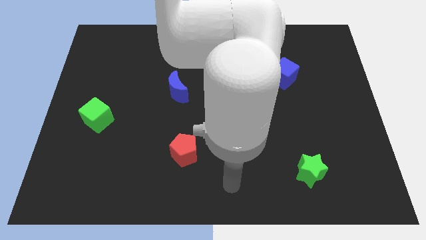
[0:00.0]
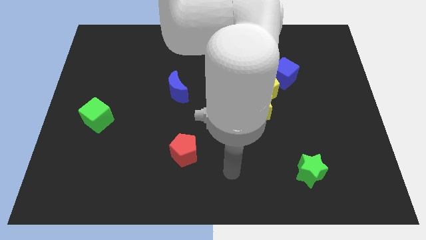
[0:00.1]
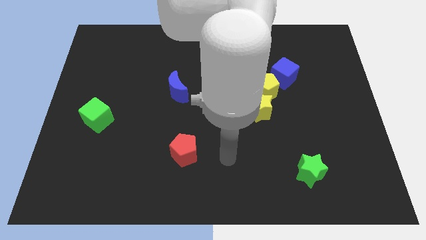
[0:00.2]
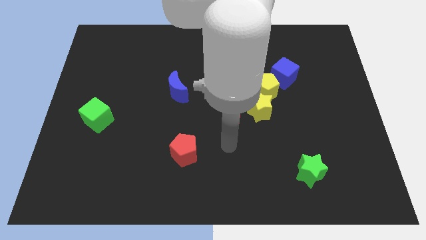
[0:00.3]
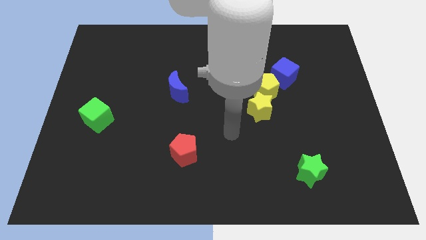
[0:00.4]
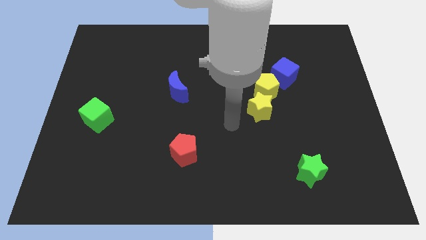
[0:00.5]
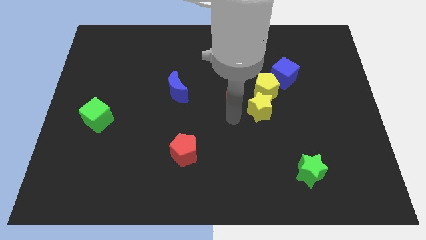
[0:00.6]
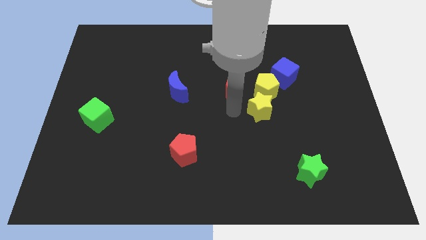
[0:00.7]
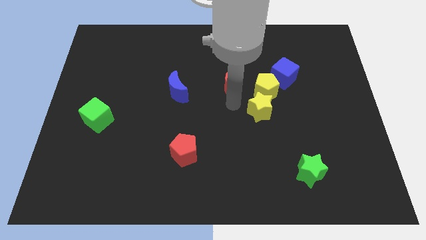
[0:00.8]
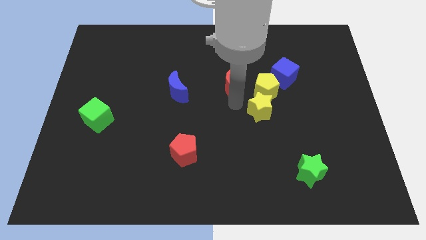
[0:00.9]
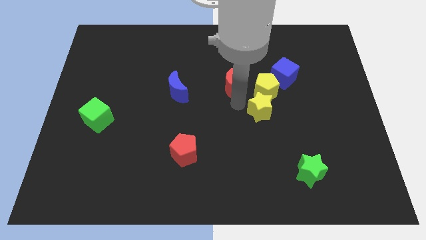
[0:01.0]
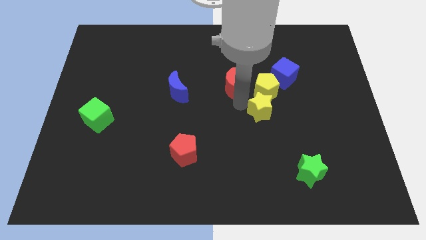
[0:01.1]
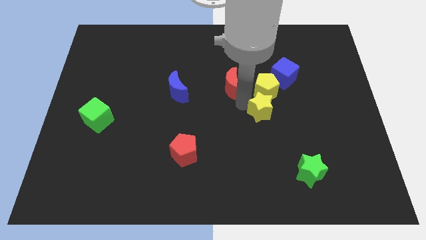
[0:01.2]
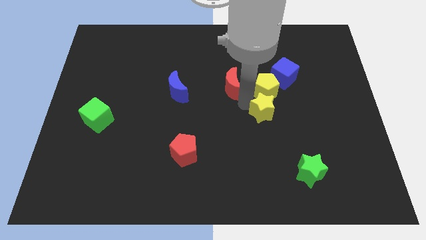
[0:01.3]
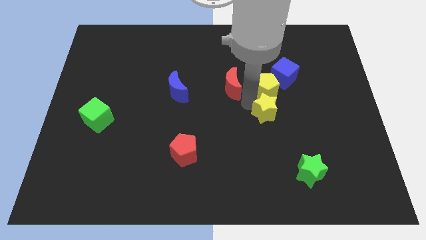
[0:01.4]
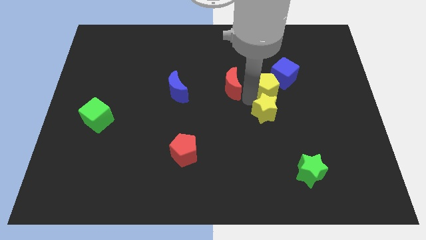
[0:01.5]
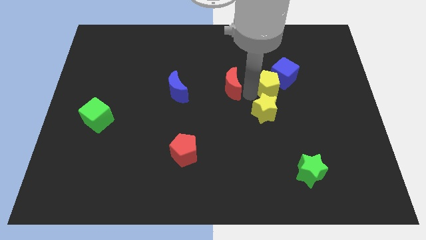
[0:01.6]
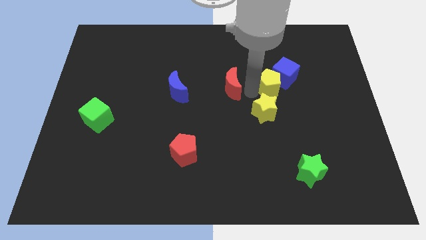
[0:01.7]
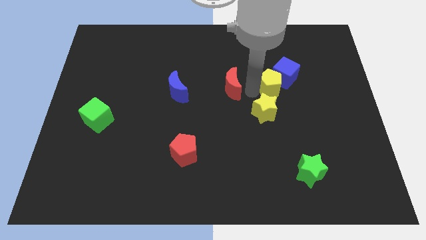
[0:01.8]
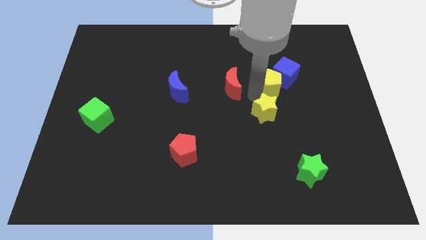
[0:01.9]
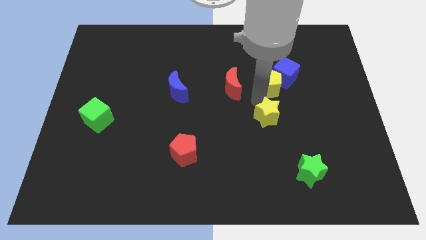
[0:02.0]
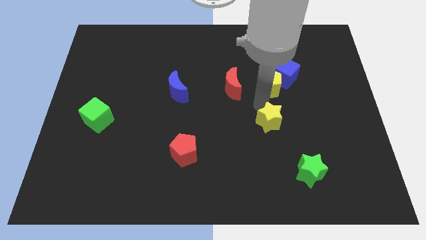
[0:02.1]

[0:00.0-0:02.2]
pull the yellow star apart from the yellow pentagon and red moon

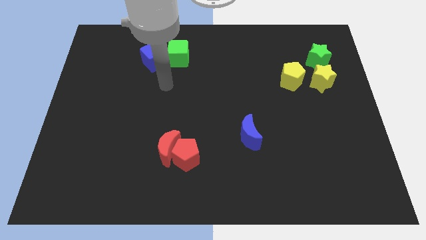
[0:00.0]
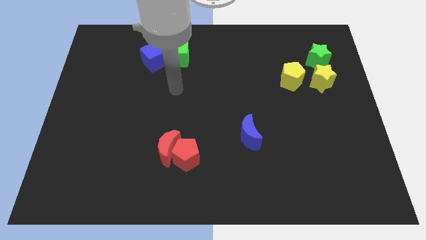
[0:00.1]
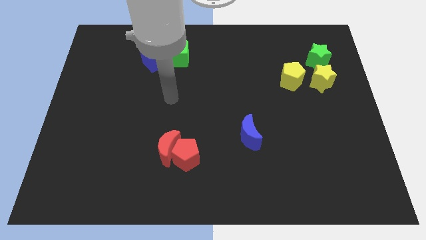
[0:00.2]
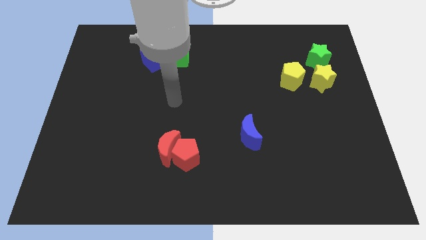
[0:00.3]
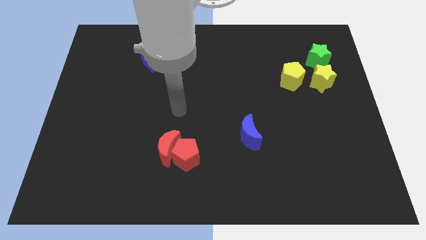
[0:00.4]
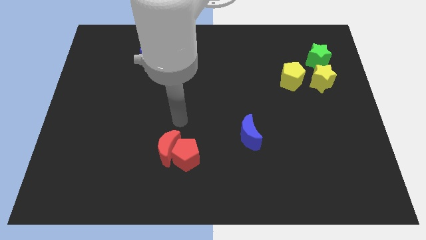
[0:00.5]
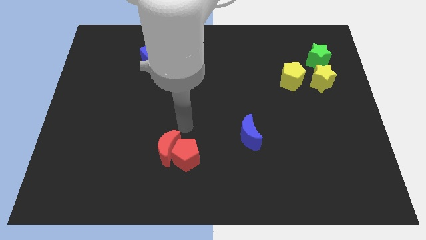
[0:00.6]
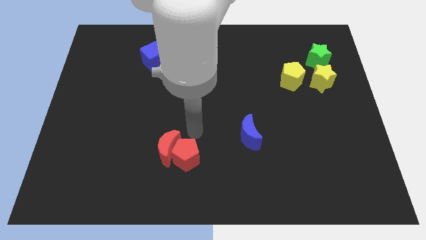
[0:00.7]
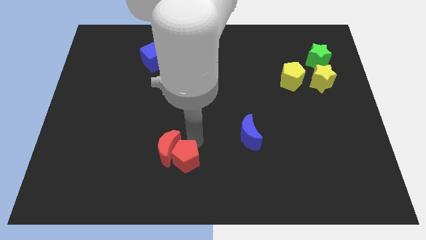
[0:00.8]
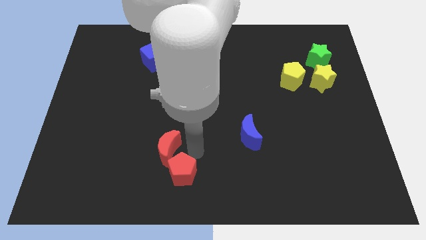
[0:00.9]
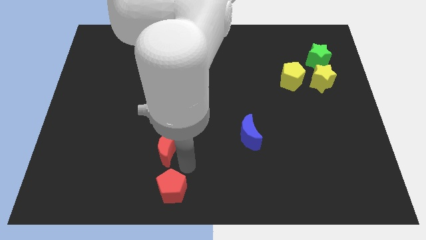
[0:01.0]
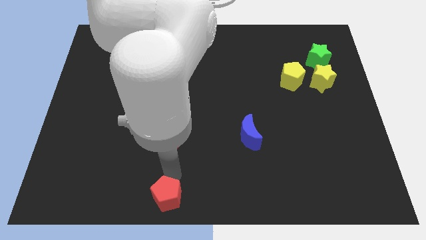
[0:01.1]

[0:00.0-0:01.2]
move the red moon away from the red pentagon

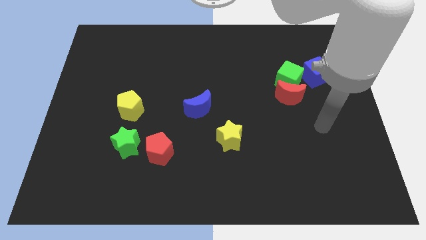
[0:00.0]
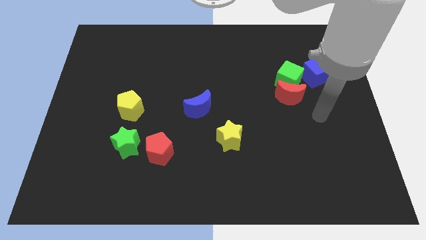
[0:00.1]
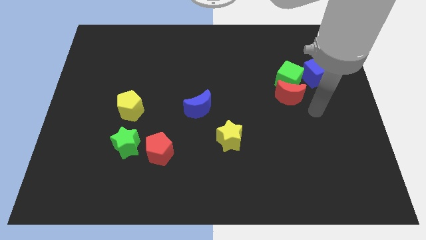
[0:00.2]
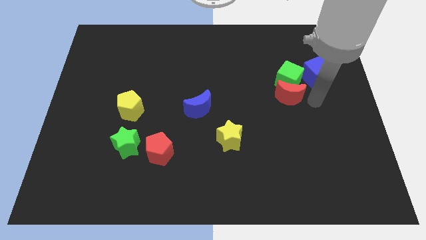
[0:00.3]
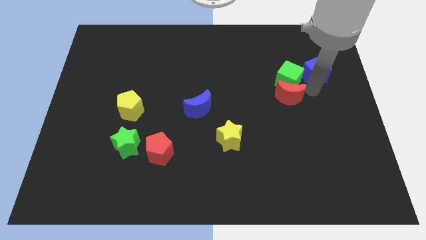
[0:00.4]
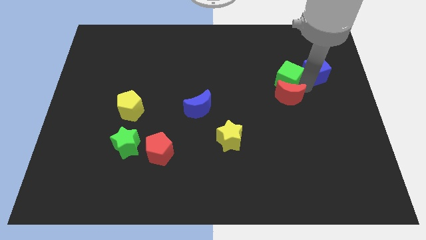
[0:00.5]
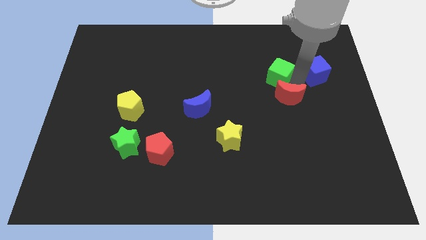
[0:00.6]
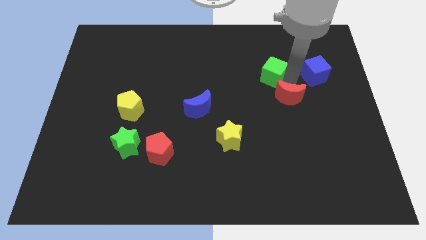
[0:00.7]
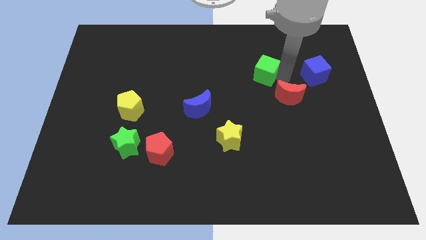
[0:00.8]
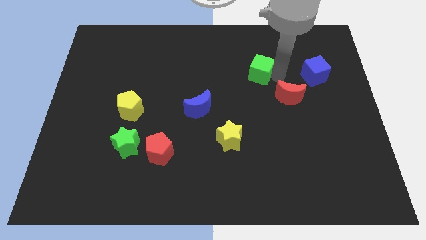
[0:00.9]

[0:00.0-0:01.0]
separate the green cube from the red moon and blue cube

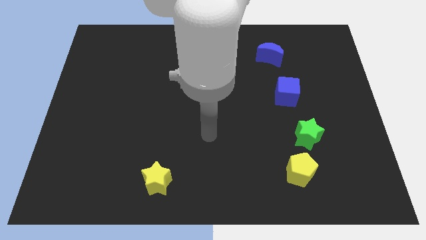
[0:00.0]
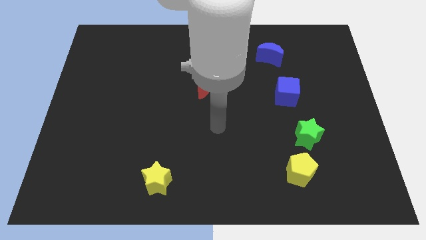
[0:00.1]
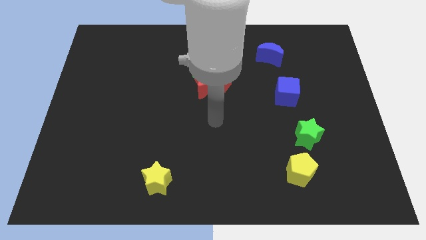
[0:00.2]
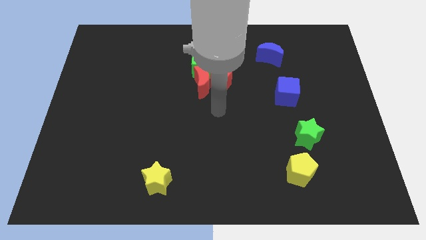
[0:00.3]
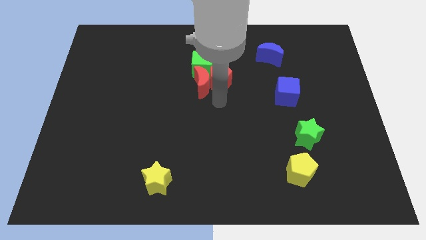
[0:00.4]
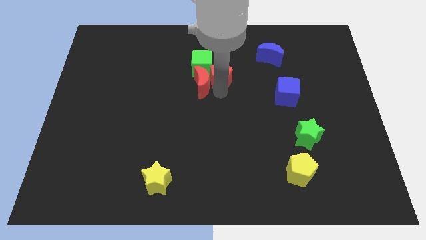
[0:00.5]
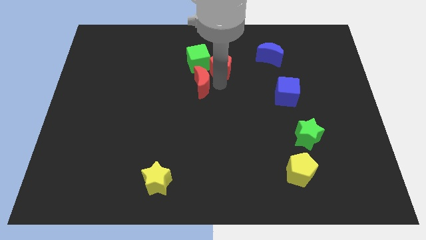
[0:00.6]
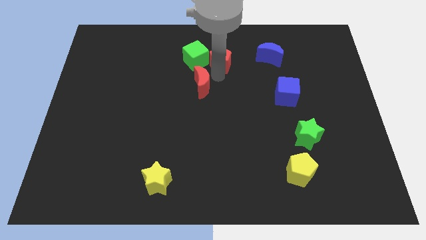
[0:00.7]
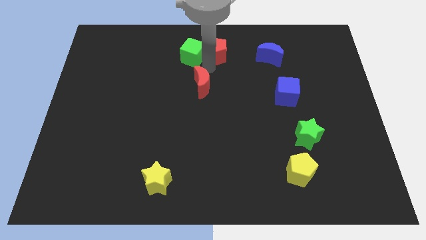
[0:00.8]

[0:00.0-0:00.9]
move the red moon away from the red pentagon and green cube

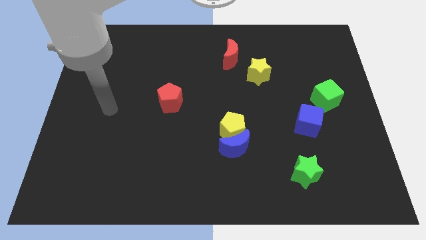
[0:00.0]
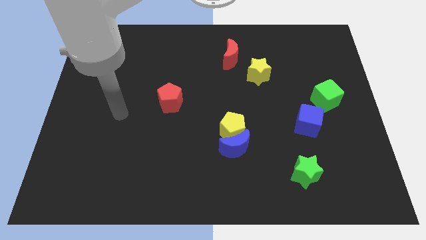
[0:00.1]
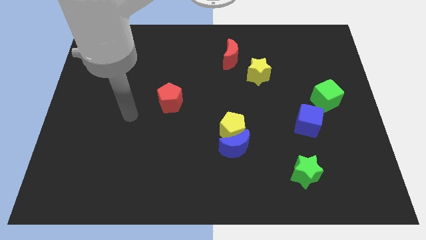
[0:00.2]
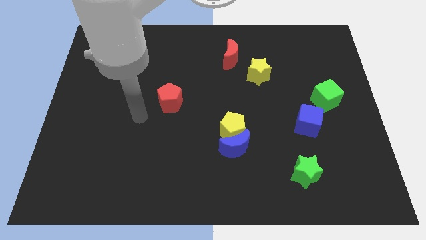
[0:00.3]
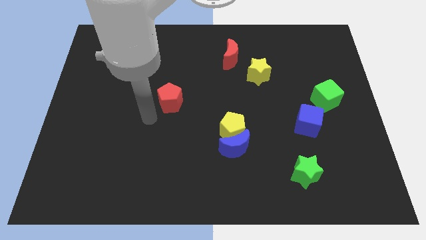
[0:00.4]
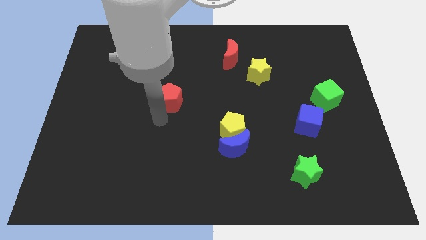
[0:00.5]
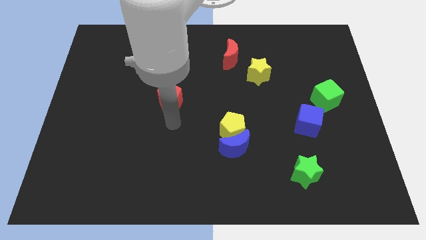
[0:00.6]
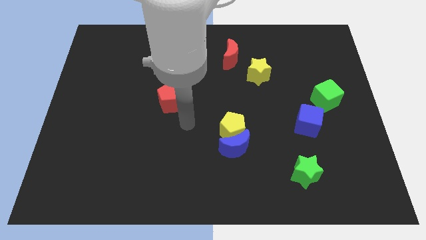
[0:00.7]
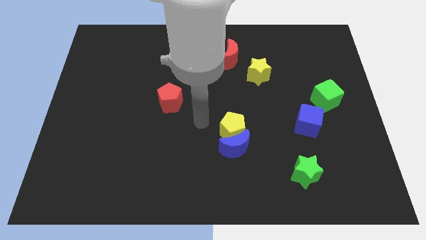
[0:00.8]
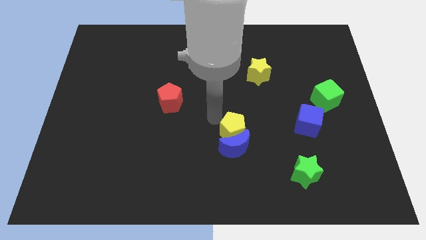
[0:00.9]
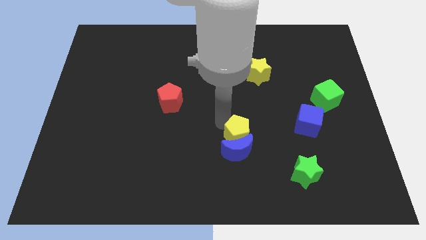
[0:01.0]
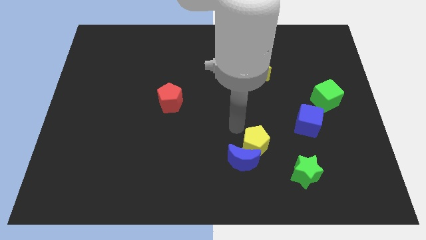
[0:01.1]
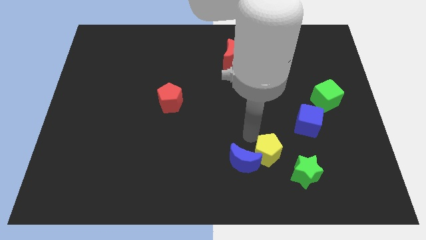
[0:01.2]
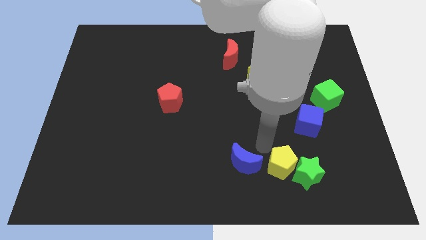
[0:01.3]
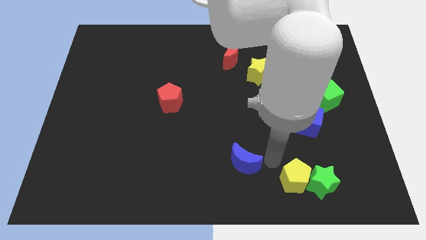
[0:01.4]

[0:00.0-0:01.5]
separate the blue moon from the yellow pentagon

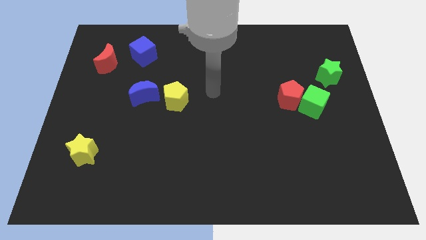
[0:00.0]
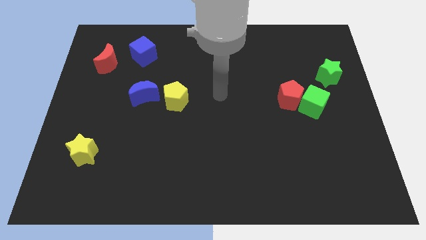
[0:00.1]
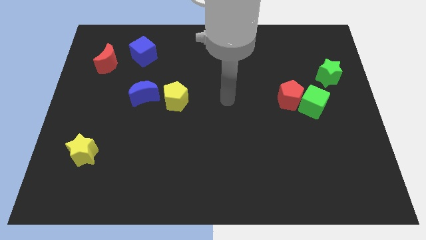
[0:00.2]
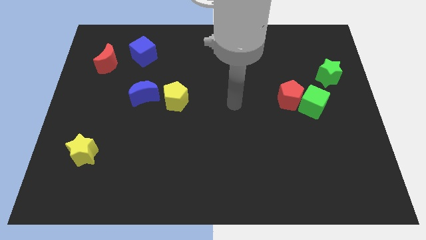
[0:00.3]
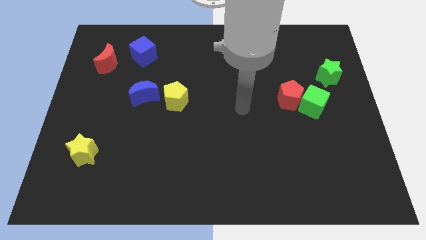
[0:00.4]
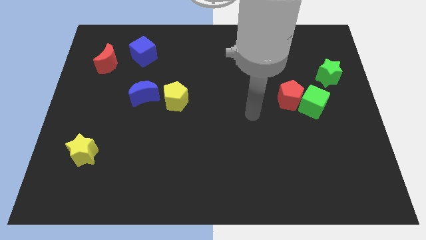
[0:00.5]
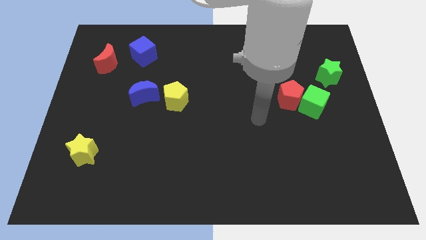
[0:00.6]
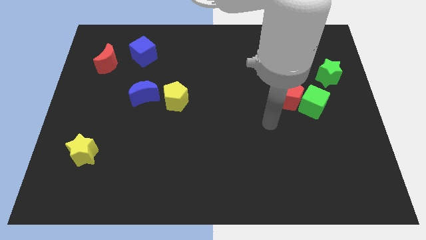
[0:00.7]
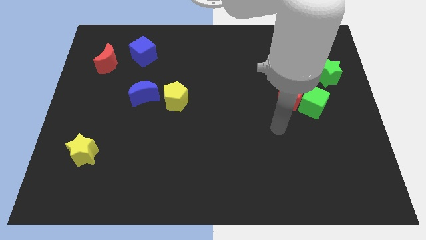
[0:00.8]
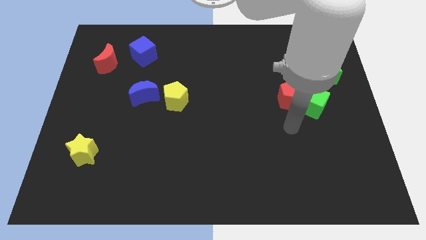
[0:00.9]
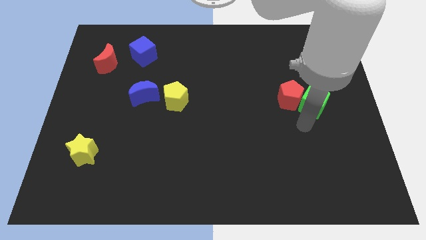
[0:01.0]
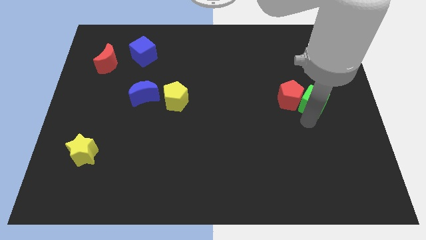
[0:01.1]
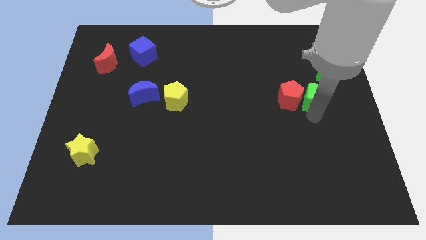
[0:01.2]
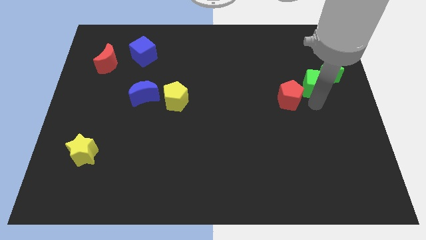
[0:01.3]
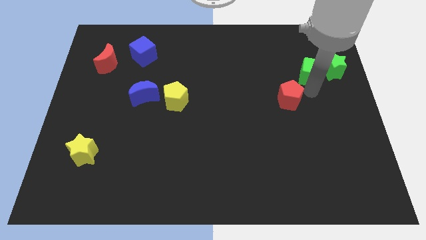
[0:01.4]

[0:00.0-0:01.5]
separate the red pentagon from the green cube

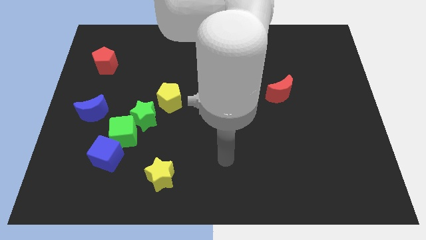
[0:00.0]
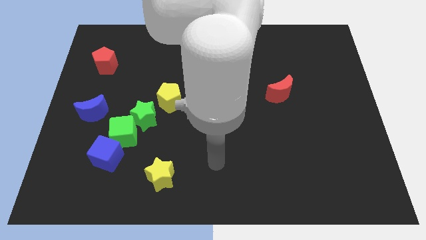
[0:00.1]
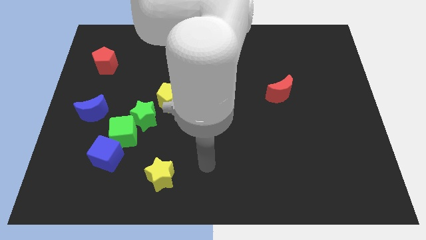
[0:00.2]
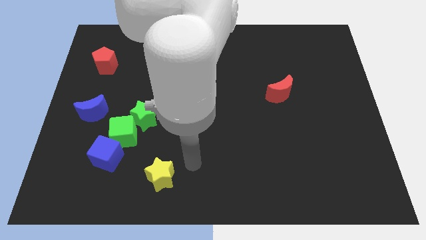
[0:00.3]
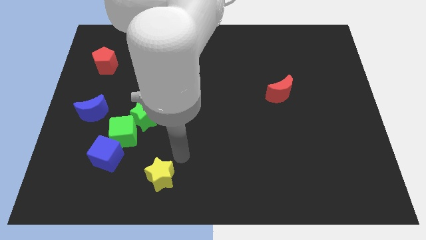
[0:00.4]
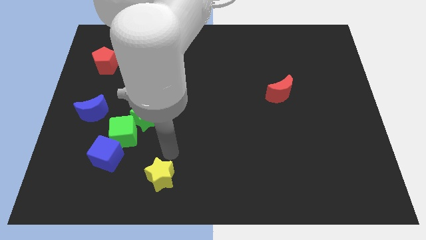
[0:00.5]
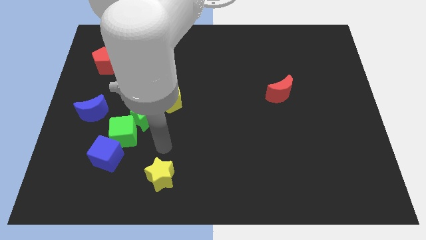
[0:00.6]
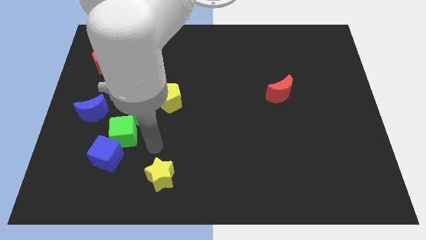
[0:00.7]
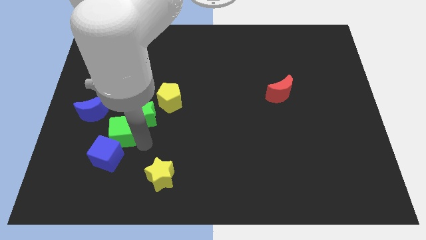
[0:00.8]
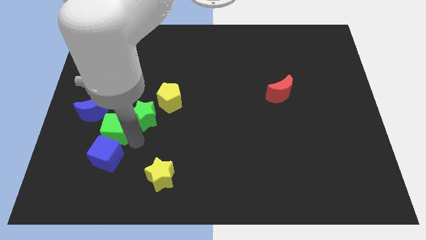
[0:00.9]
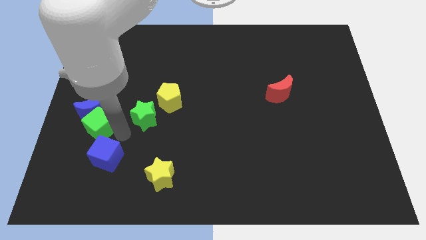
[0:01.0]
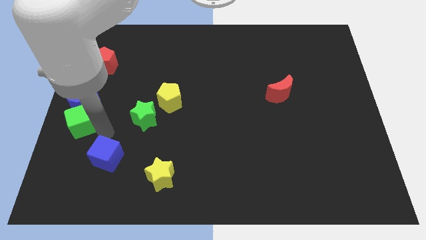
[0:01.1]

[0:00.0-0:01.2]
pull the blue cube apart from the green cube
